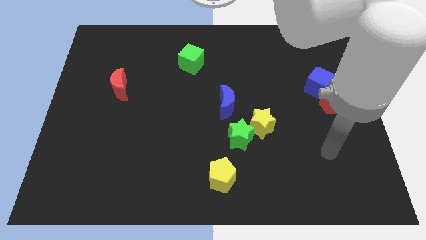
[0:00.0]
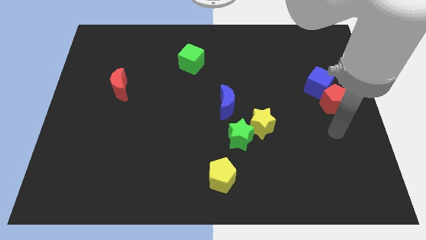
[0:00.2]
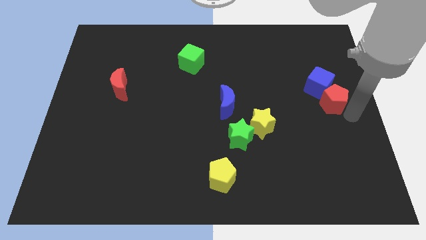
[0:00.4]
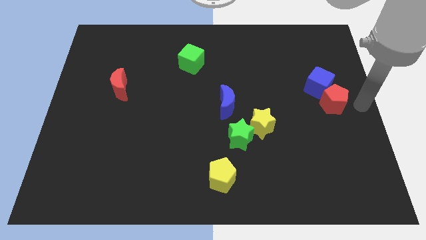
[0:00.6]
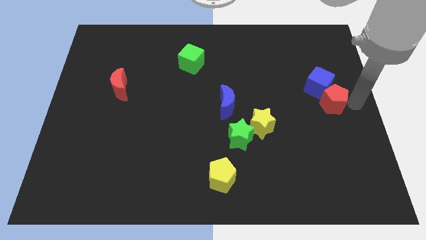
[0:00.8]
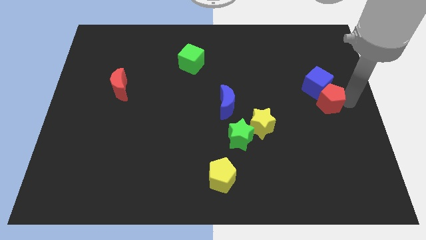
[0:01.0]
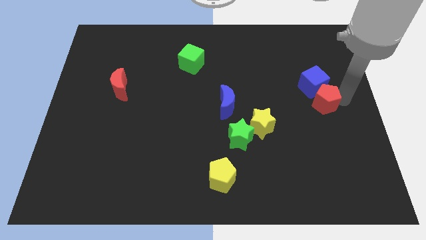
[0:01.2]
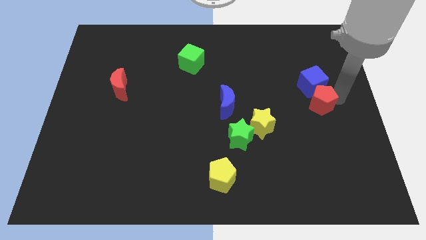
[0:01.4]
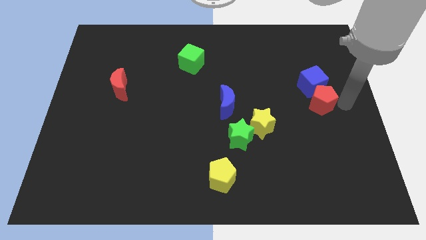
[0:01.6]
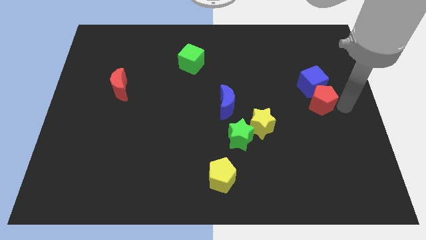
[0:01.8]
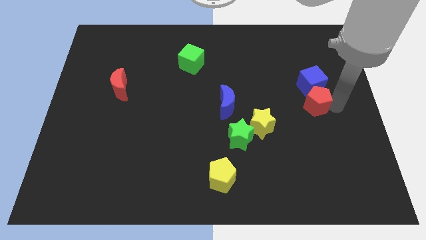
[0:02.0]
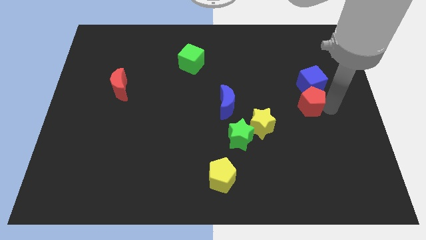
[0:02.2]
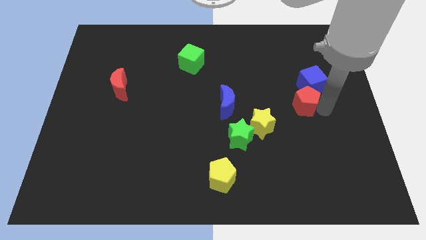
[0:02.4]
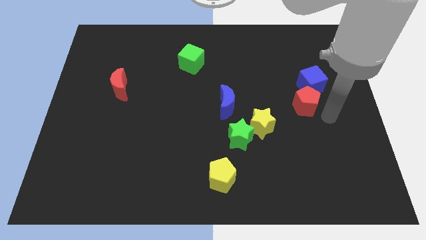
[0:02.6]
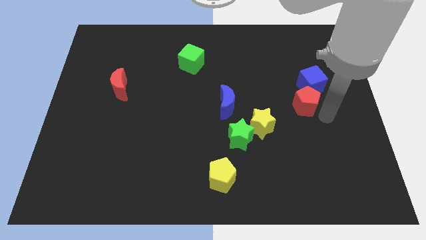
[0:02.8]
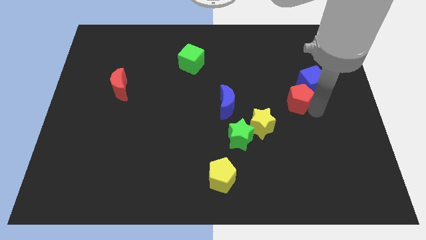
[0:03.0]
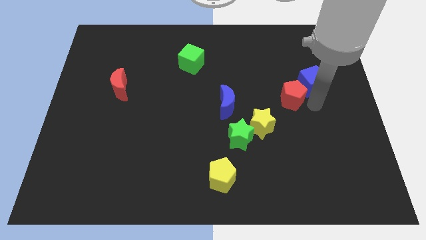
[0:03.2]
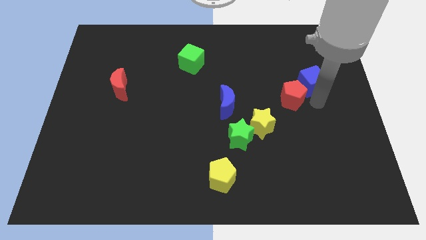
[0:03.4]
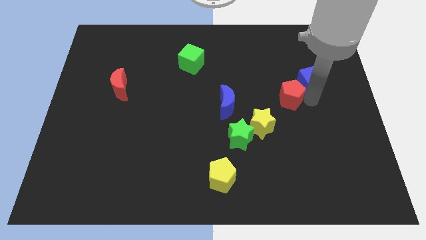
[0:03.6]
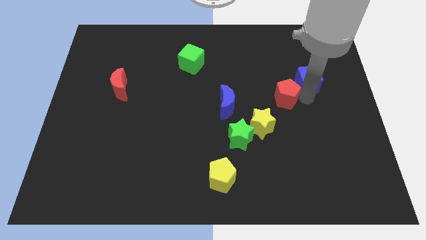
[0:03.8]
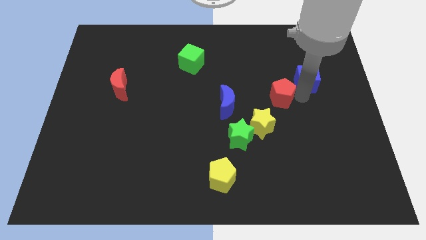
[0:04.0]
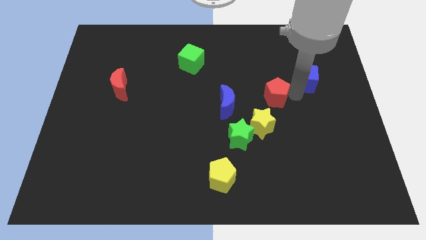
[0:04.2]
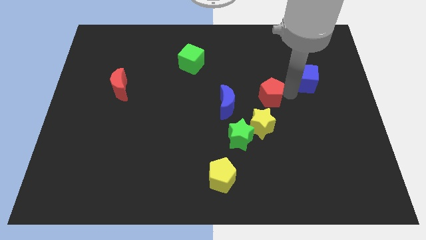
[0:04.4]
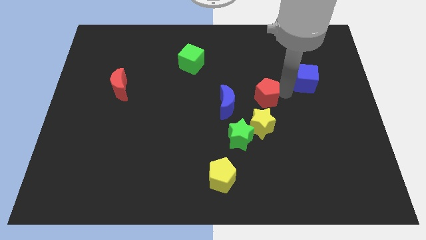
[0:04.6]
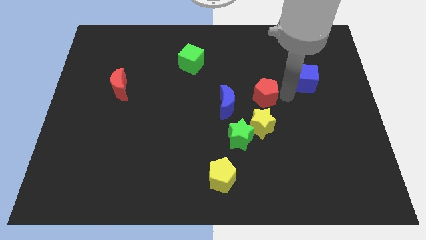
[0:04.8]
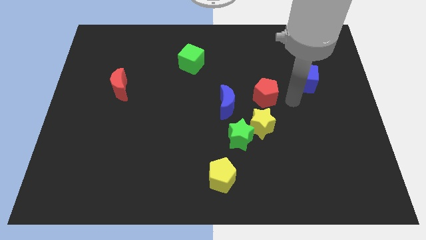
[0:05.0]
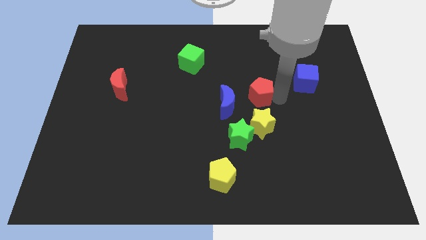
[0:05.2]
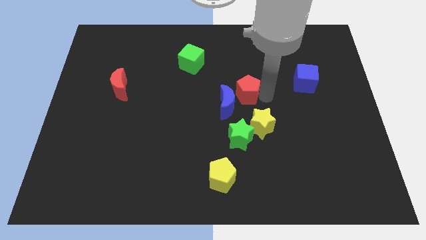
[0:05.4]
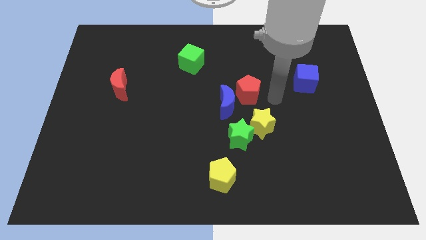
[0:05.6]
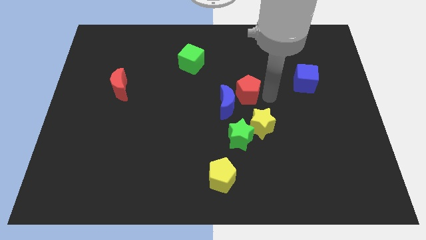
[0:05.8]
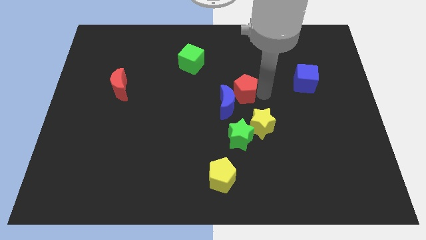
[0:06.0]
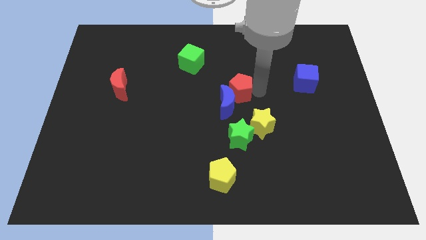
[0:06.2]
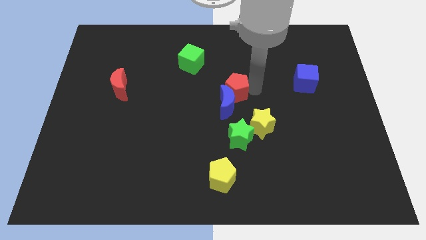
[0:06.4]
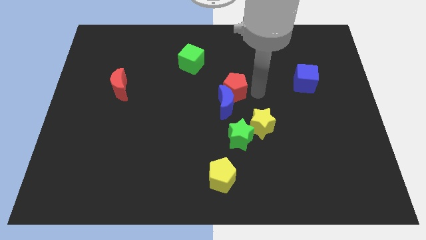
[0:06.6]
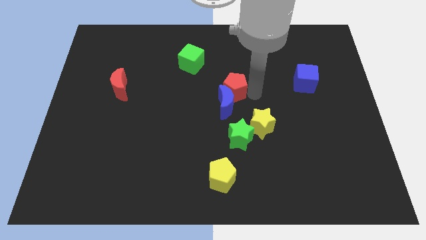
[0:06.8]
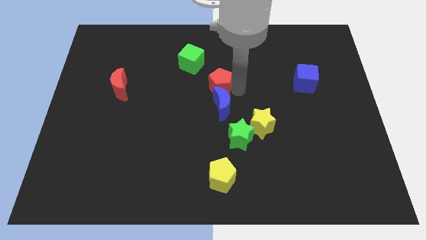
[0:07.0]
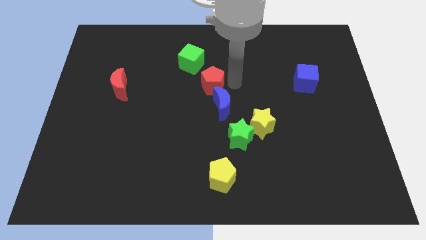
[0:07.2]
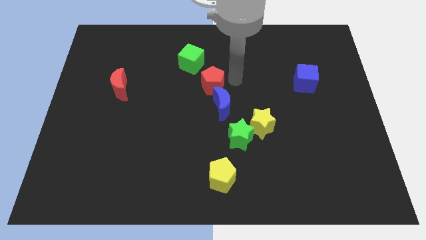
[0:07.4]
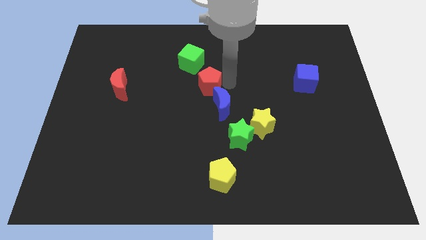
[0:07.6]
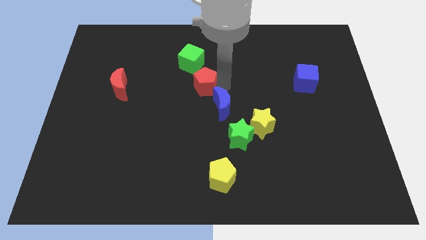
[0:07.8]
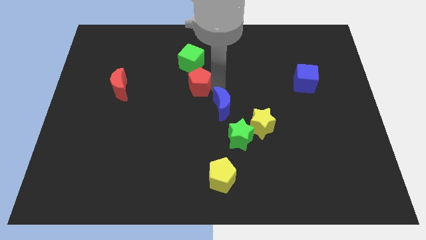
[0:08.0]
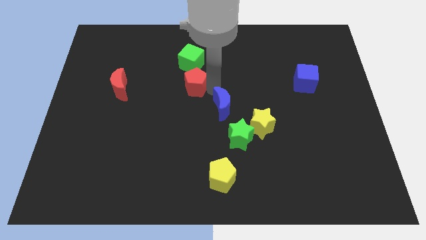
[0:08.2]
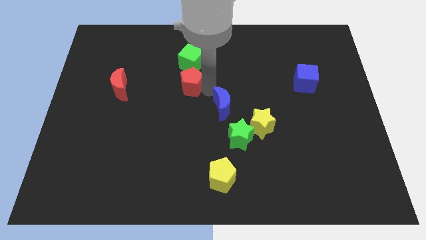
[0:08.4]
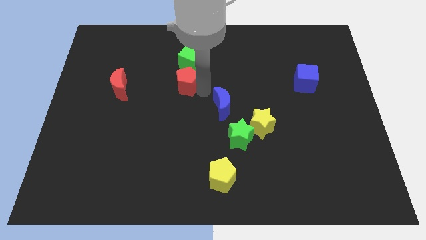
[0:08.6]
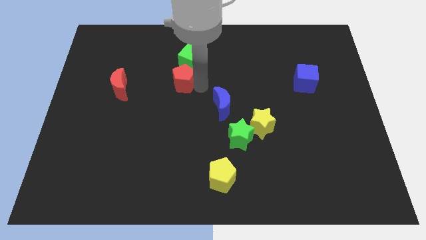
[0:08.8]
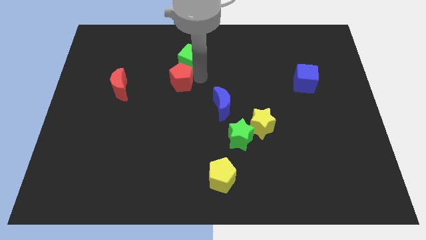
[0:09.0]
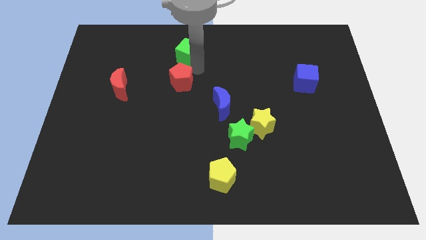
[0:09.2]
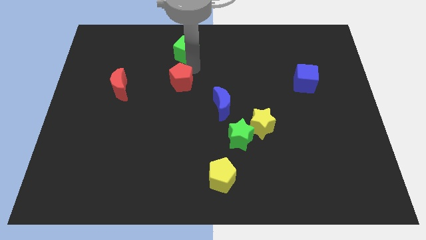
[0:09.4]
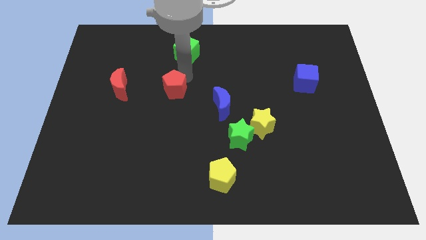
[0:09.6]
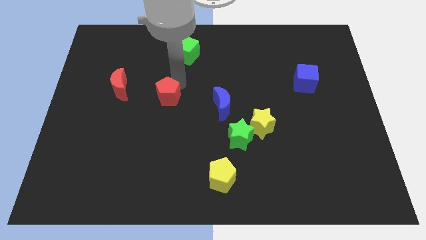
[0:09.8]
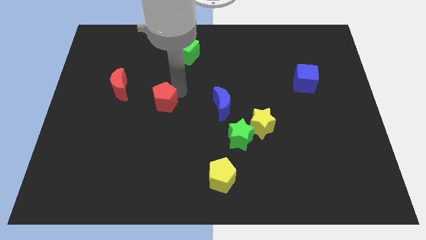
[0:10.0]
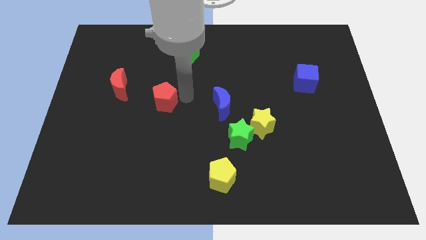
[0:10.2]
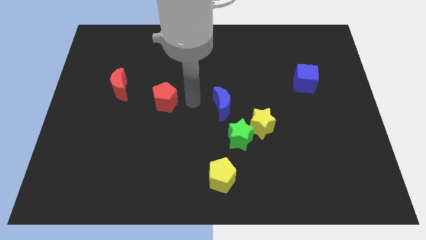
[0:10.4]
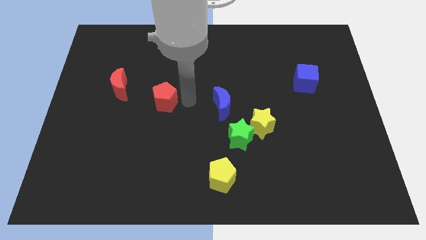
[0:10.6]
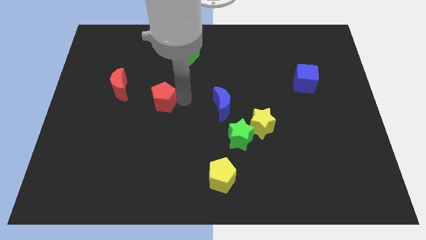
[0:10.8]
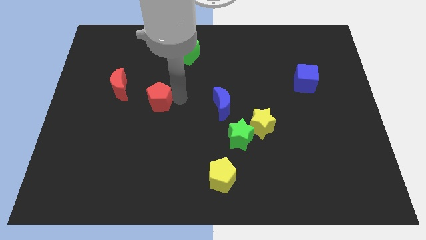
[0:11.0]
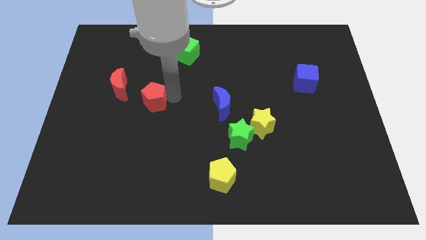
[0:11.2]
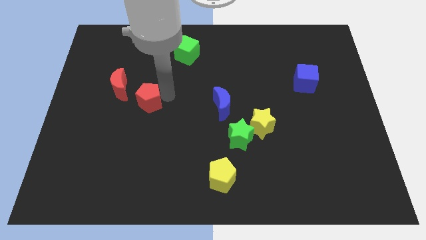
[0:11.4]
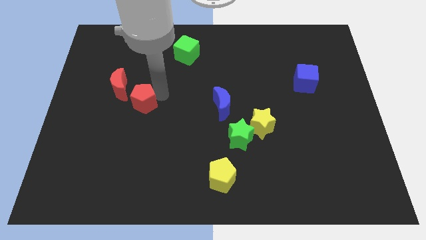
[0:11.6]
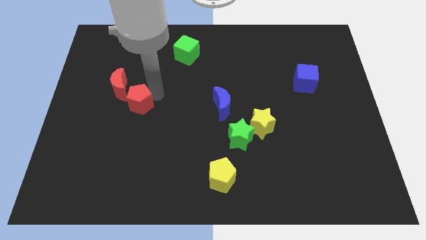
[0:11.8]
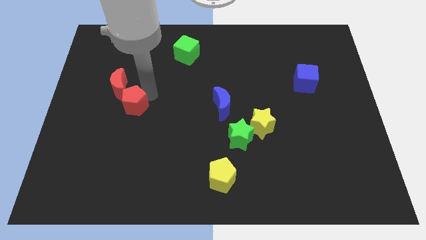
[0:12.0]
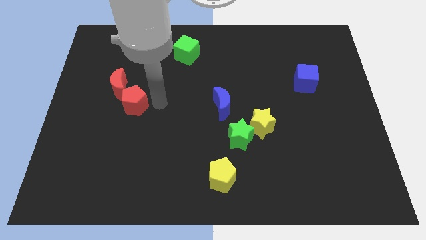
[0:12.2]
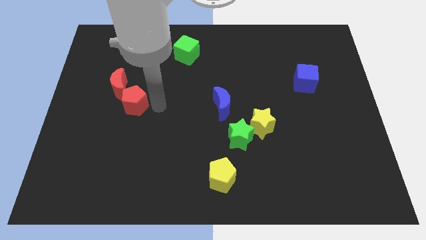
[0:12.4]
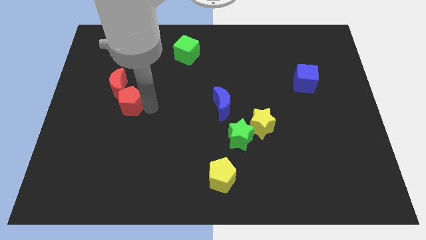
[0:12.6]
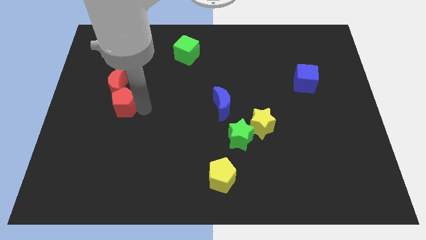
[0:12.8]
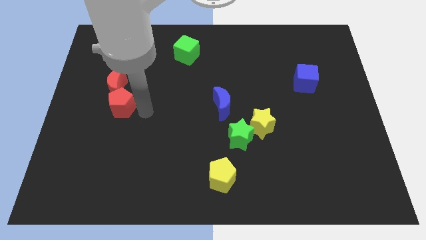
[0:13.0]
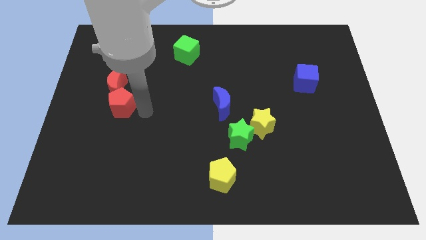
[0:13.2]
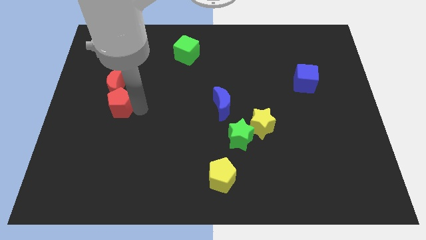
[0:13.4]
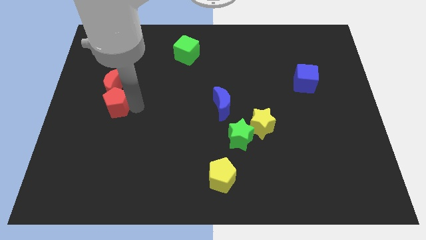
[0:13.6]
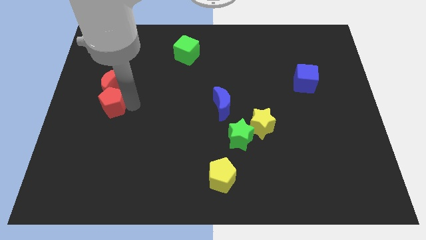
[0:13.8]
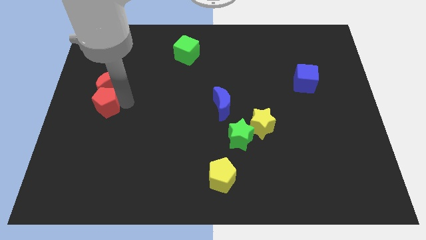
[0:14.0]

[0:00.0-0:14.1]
put the red pentagon to the left side of the board
